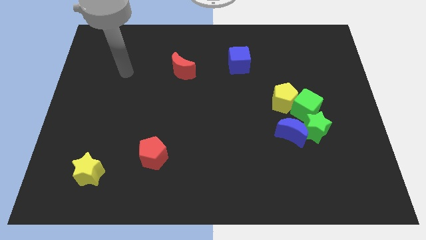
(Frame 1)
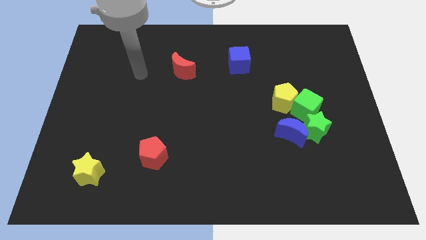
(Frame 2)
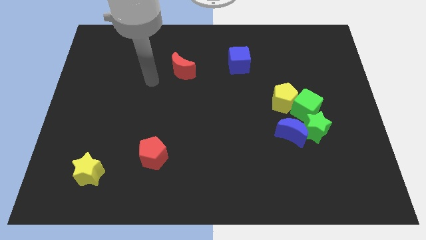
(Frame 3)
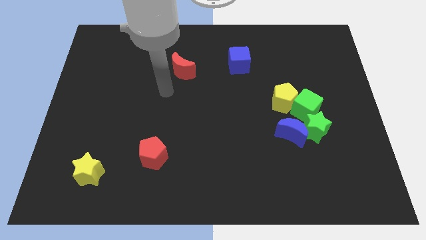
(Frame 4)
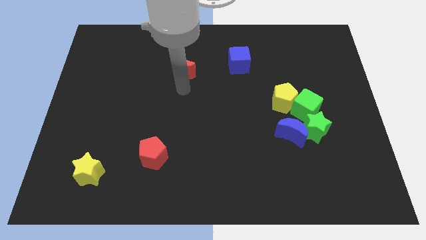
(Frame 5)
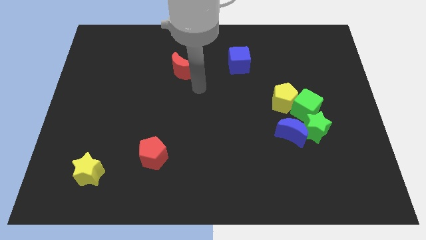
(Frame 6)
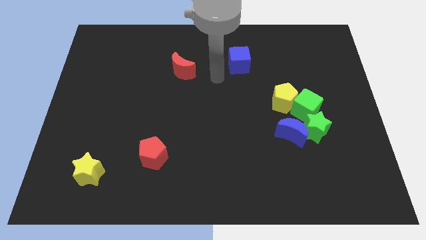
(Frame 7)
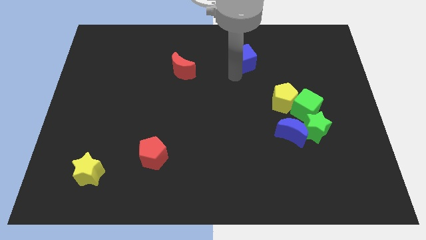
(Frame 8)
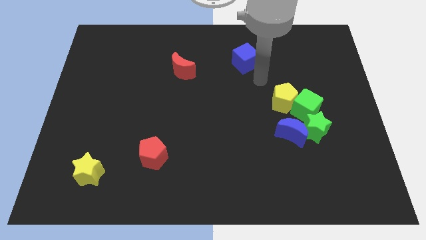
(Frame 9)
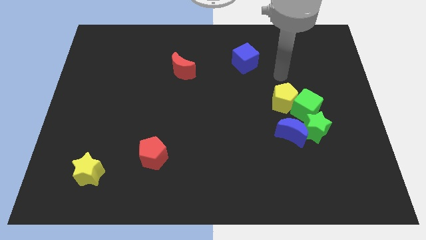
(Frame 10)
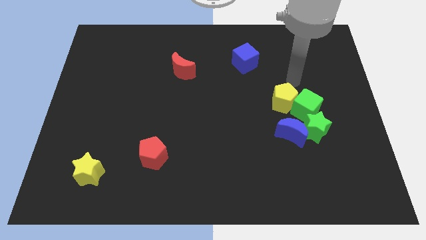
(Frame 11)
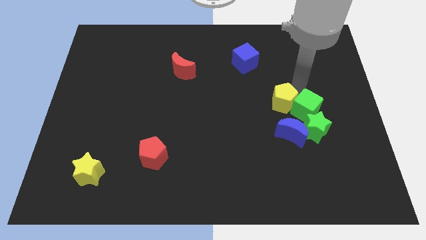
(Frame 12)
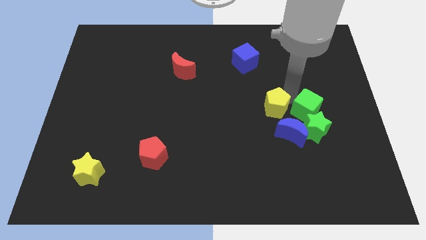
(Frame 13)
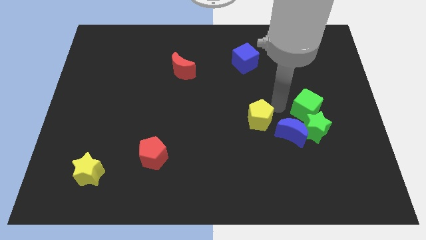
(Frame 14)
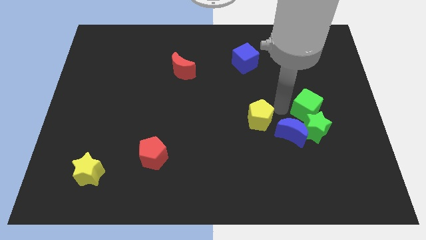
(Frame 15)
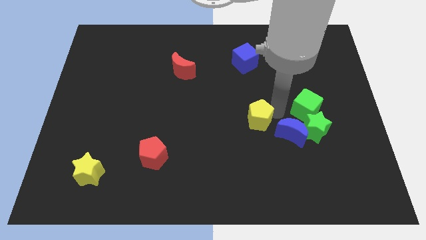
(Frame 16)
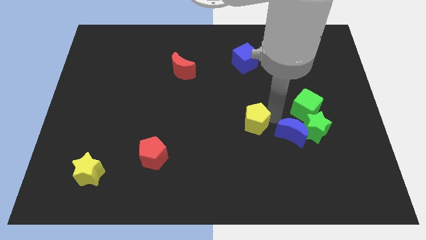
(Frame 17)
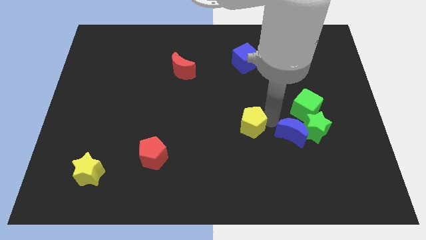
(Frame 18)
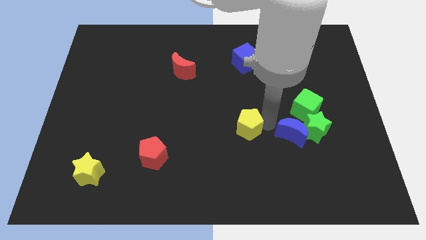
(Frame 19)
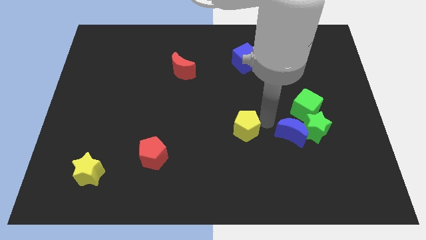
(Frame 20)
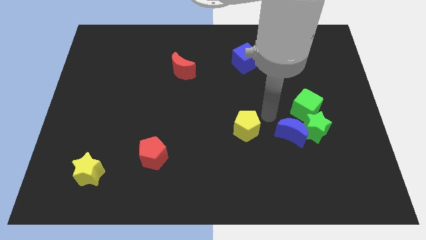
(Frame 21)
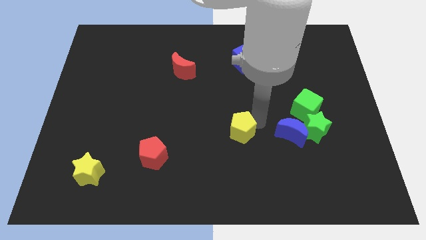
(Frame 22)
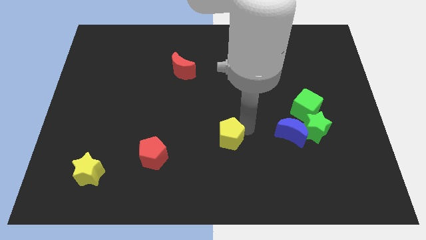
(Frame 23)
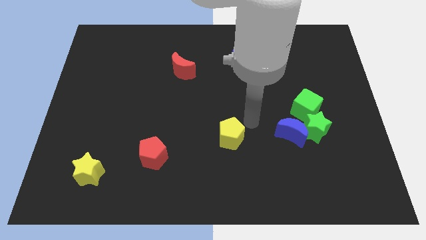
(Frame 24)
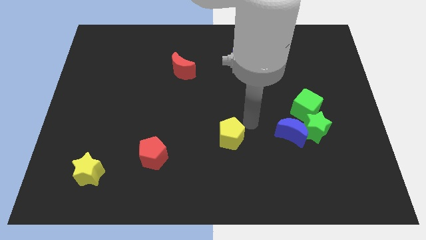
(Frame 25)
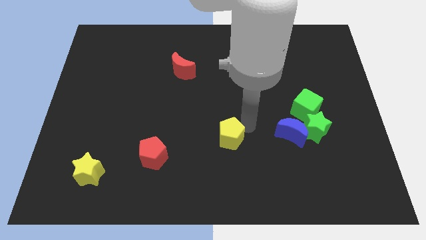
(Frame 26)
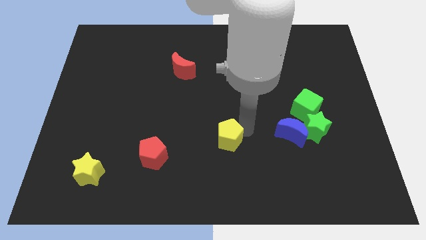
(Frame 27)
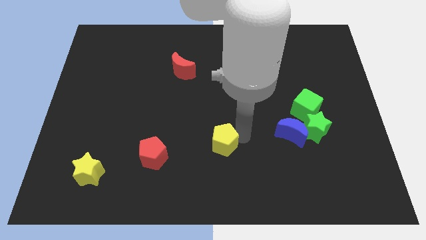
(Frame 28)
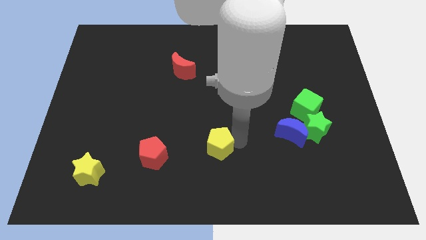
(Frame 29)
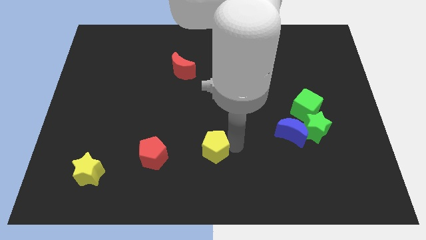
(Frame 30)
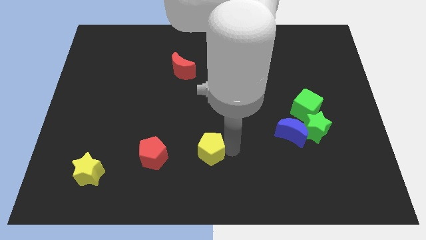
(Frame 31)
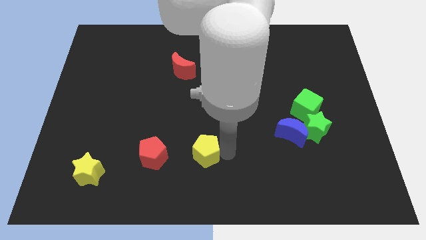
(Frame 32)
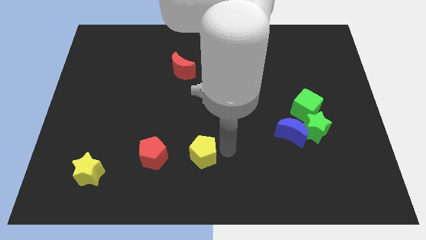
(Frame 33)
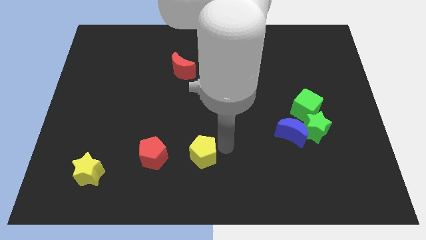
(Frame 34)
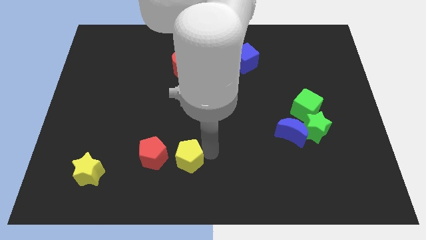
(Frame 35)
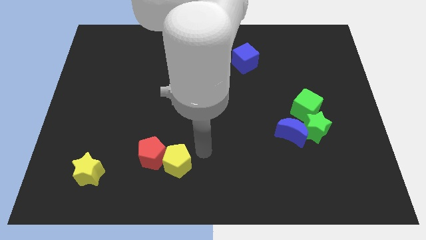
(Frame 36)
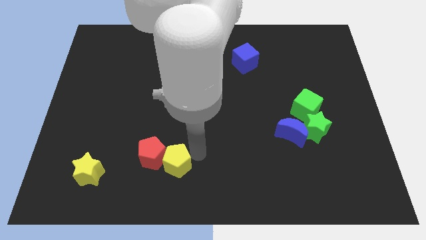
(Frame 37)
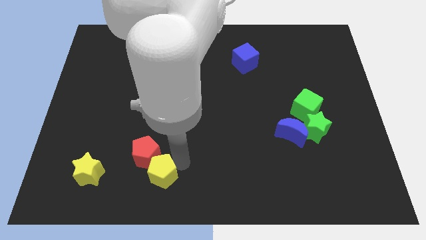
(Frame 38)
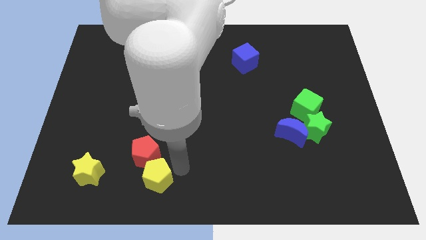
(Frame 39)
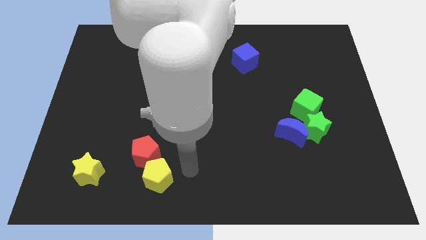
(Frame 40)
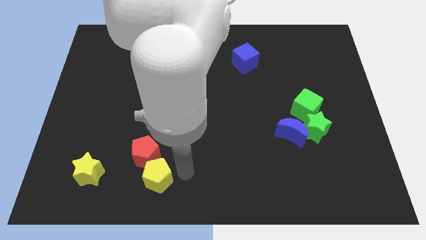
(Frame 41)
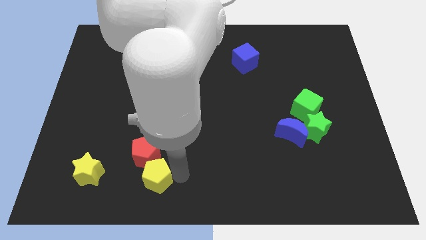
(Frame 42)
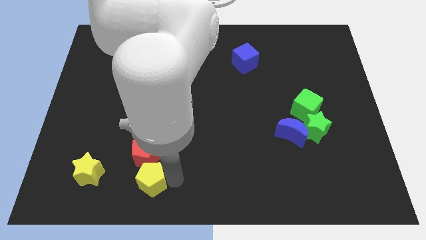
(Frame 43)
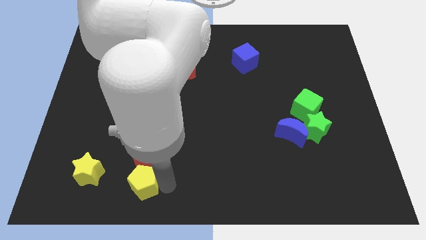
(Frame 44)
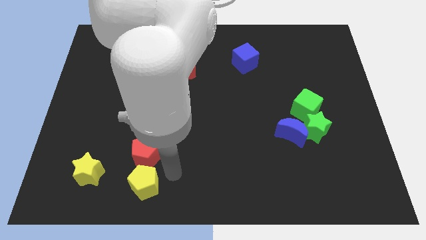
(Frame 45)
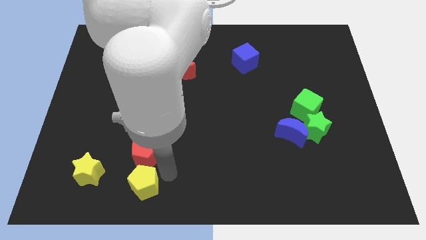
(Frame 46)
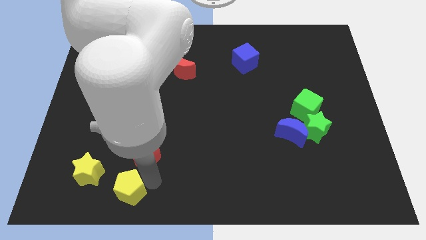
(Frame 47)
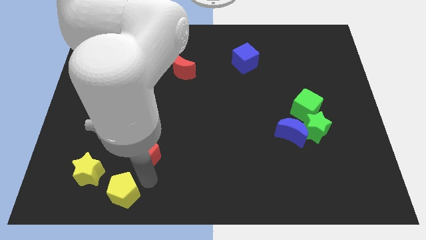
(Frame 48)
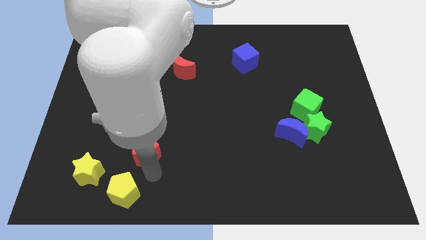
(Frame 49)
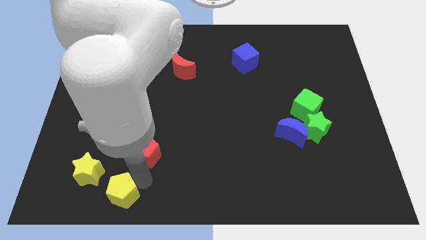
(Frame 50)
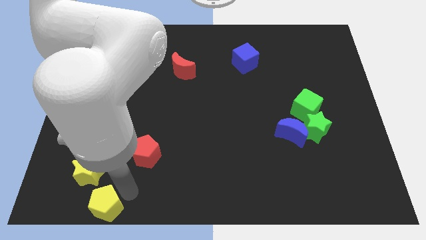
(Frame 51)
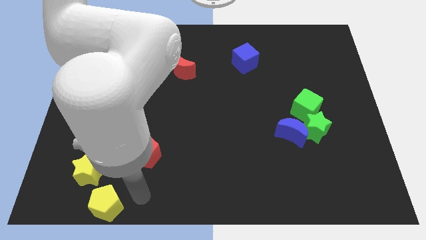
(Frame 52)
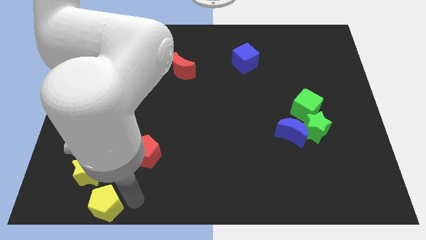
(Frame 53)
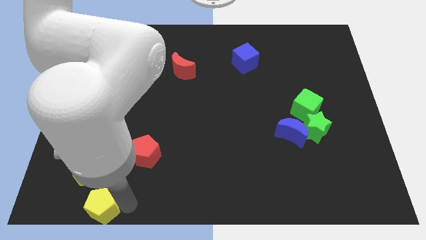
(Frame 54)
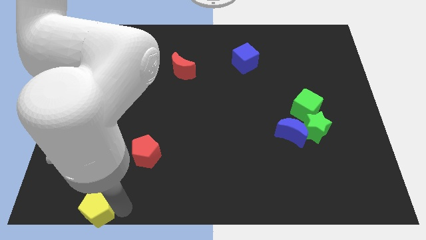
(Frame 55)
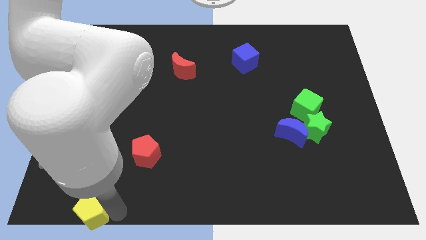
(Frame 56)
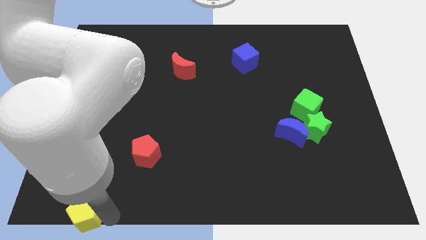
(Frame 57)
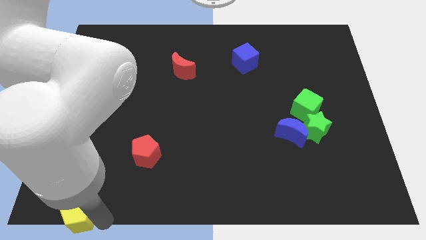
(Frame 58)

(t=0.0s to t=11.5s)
push the yellow pentagon to the lower left corner

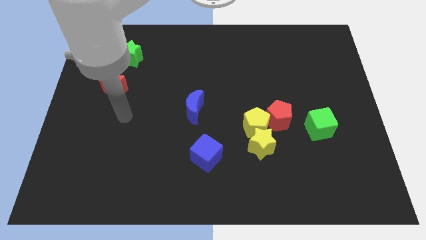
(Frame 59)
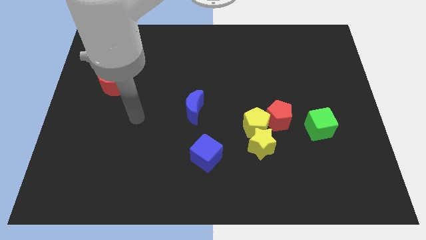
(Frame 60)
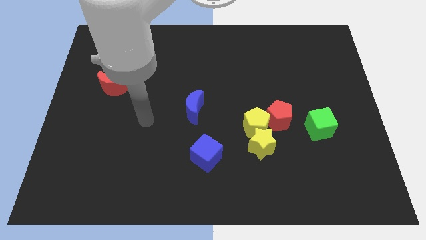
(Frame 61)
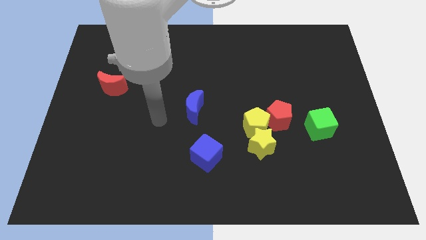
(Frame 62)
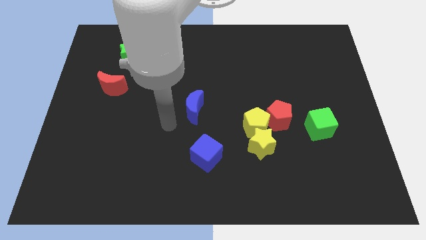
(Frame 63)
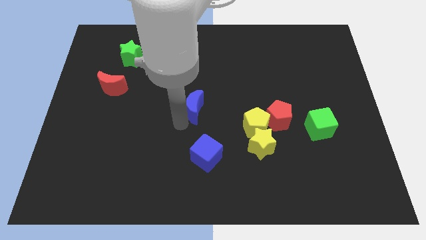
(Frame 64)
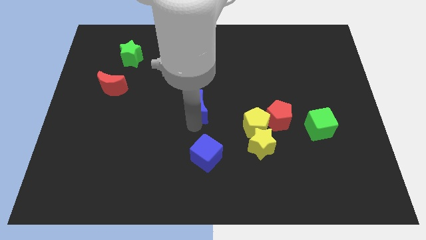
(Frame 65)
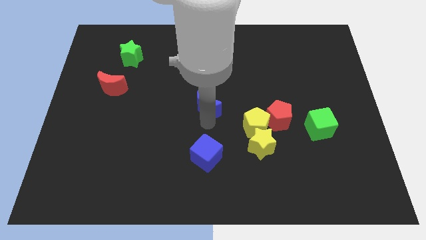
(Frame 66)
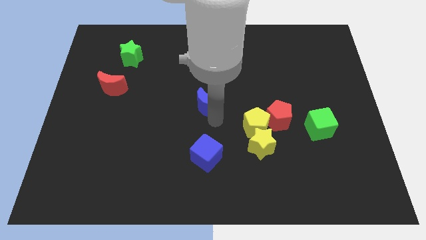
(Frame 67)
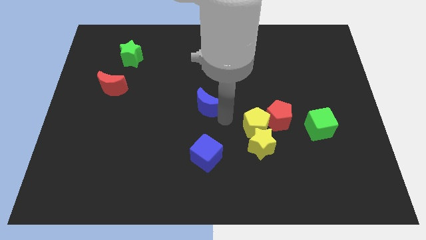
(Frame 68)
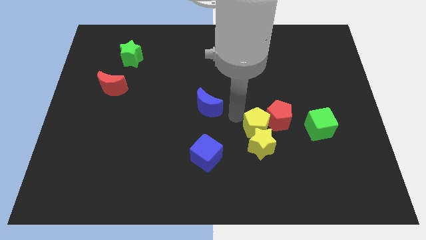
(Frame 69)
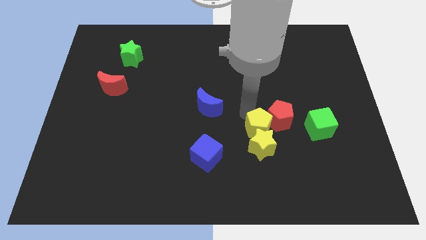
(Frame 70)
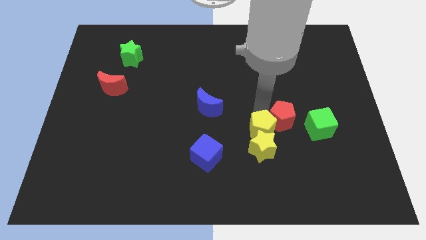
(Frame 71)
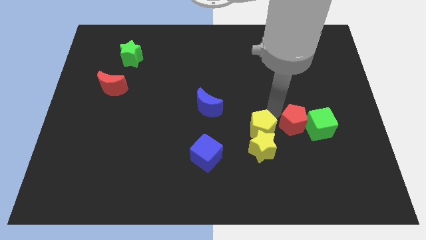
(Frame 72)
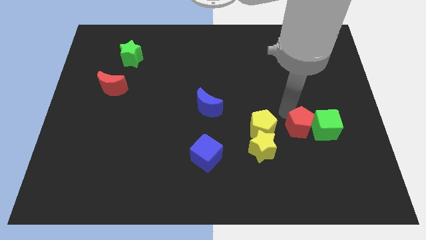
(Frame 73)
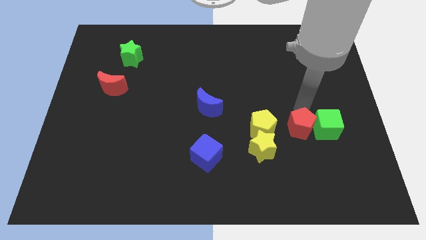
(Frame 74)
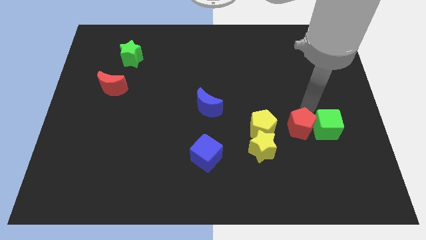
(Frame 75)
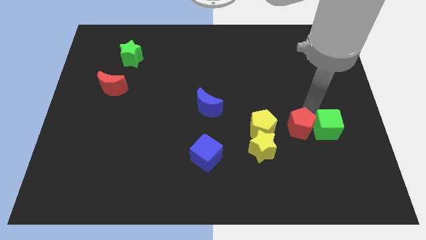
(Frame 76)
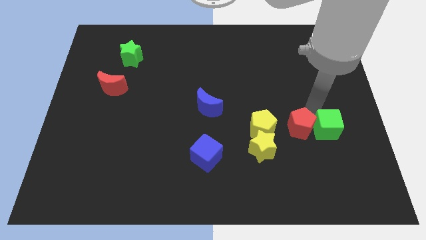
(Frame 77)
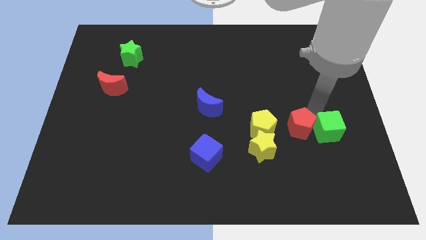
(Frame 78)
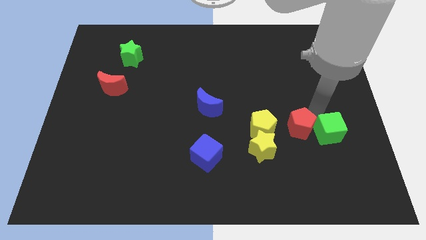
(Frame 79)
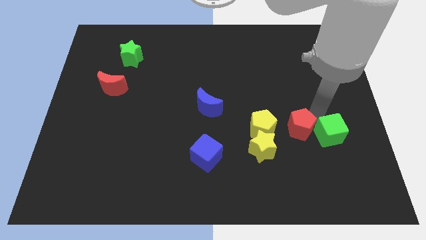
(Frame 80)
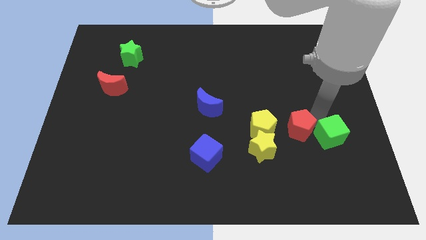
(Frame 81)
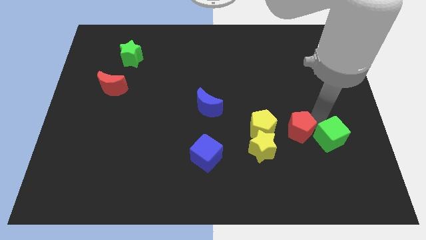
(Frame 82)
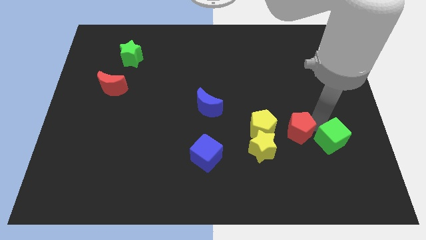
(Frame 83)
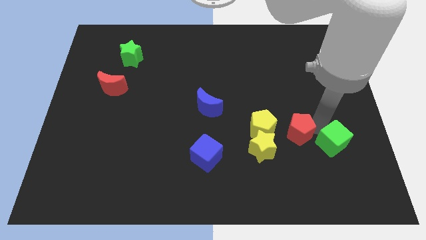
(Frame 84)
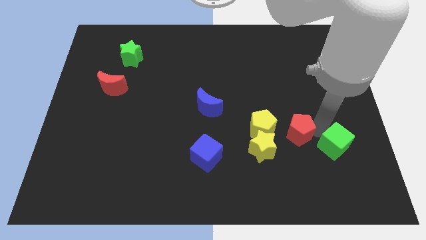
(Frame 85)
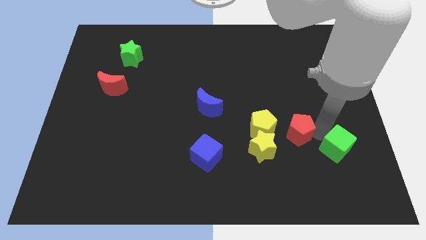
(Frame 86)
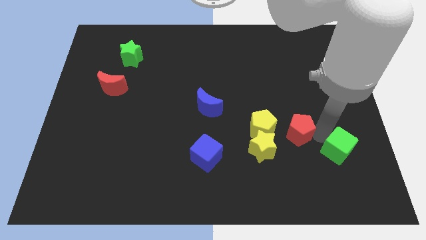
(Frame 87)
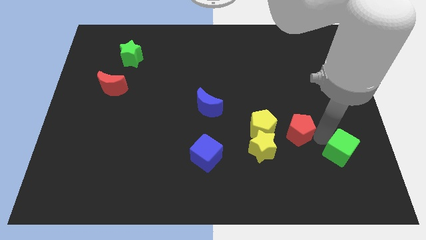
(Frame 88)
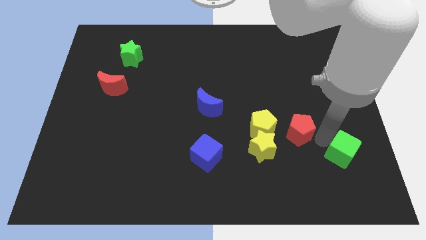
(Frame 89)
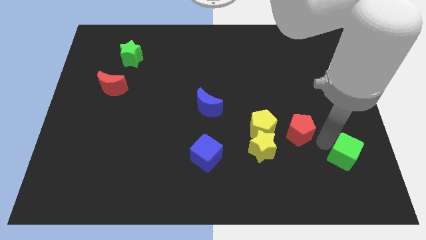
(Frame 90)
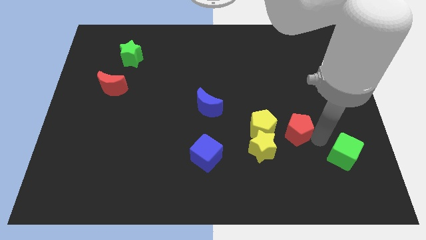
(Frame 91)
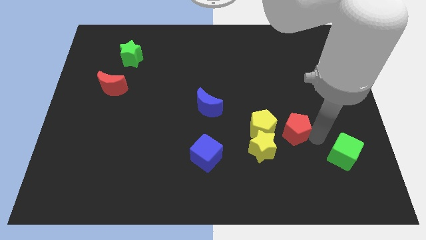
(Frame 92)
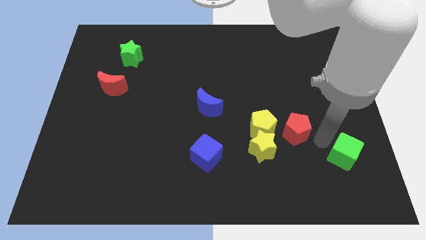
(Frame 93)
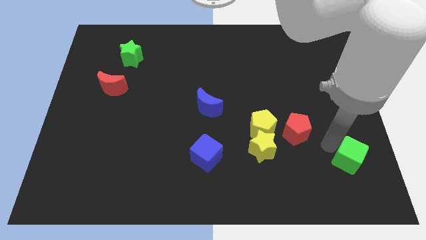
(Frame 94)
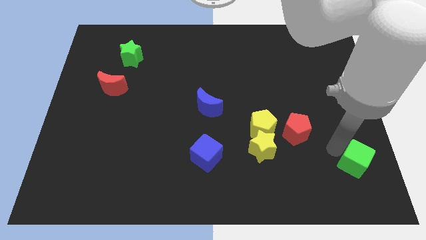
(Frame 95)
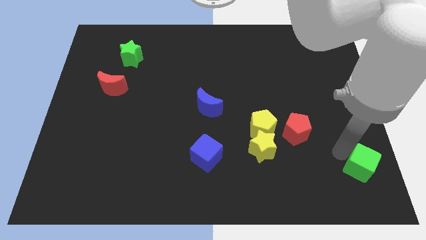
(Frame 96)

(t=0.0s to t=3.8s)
slide the green cube to the bottom right corner
